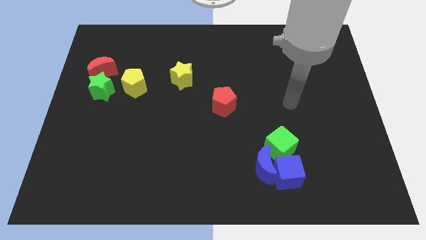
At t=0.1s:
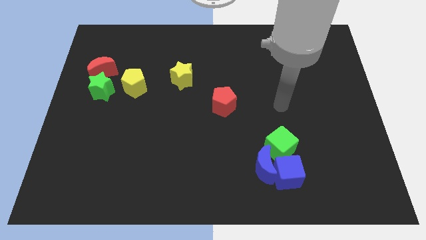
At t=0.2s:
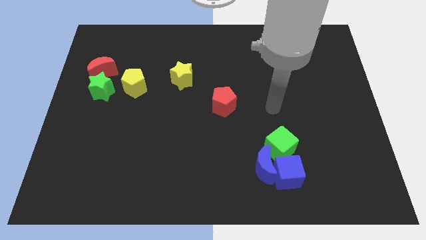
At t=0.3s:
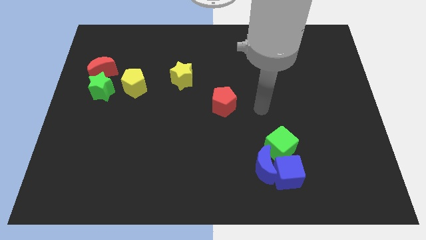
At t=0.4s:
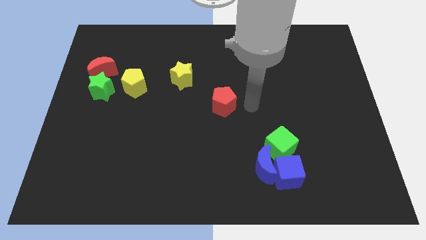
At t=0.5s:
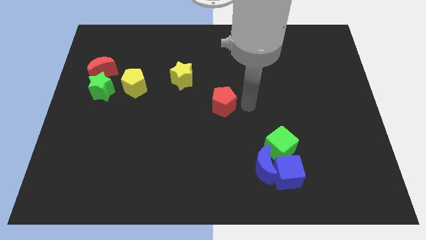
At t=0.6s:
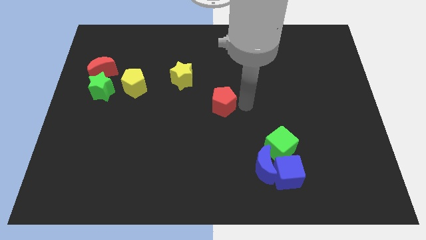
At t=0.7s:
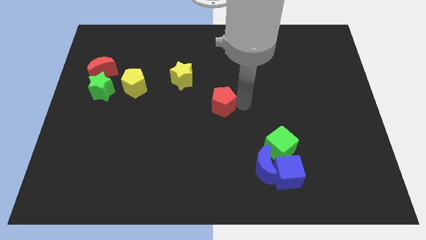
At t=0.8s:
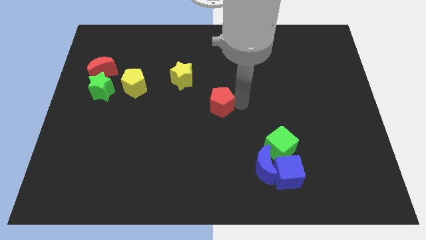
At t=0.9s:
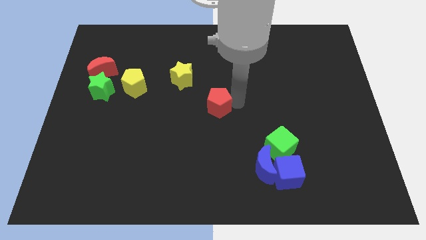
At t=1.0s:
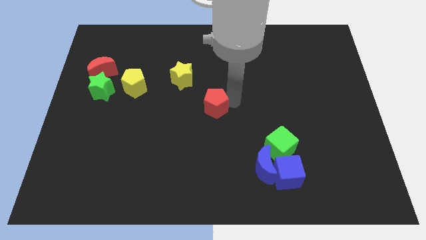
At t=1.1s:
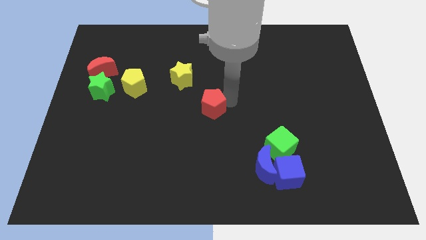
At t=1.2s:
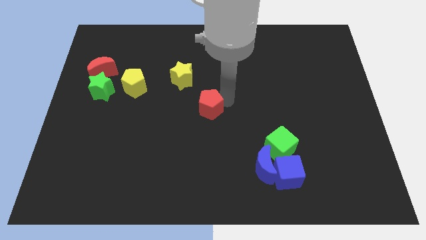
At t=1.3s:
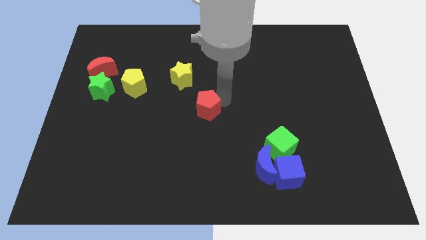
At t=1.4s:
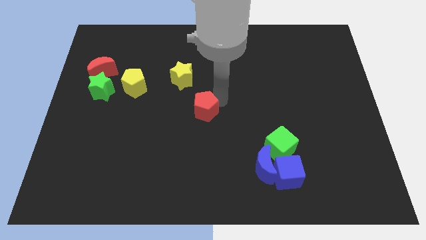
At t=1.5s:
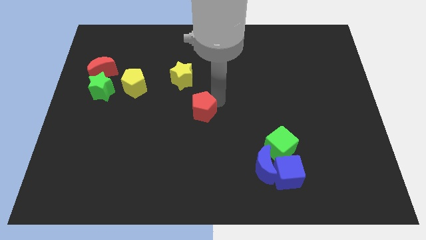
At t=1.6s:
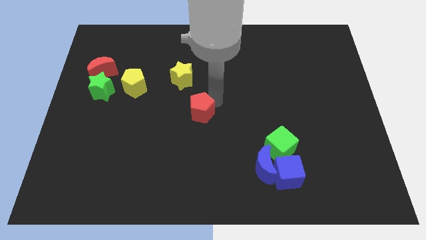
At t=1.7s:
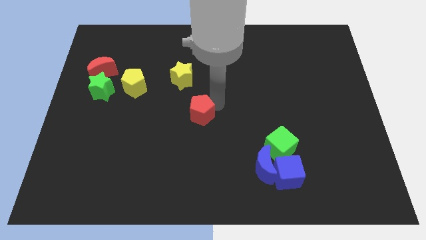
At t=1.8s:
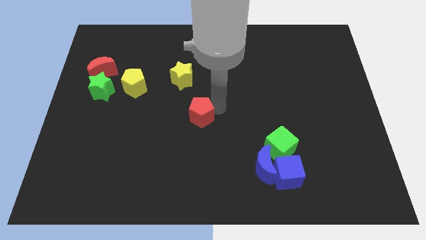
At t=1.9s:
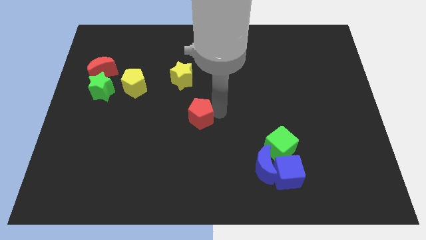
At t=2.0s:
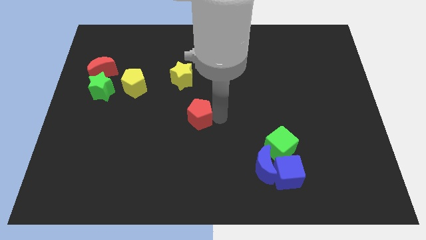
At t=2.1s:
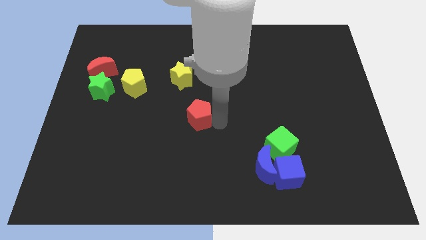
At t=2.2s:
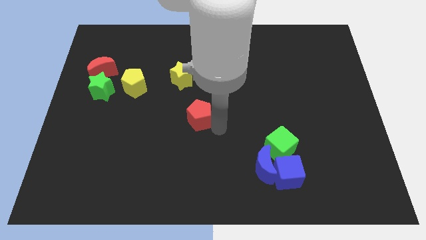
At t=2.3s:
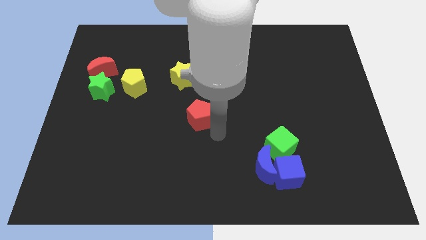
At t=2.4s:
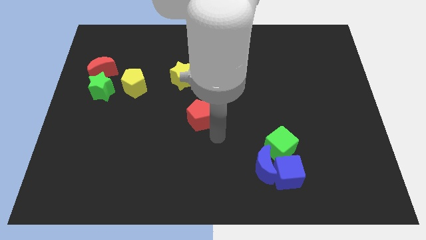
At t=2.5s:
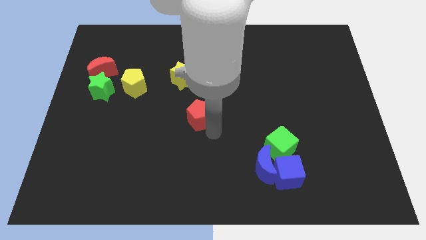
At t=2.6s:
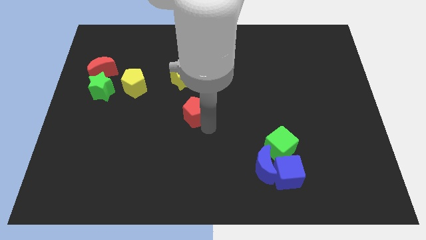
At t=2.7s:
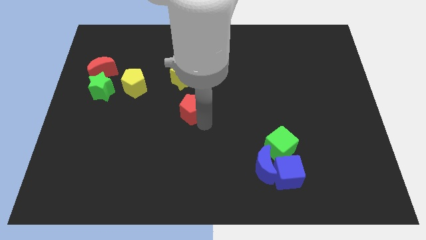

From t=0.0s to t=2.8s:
push the red pentagon left slightly

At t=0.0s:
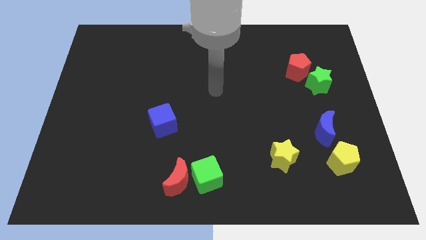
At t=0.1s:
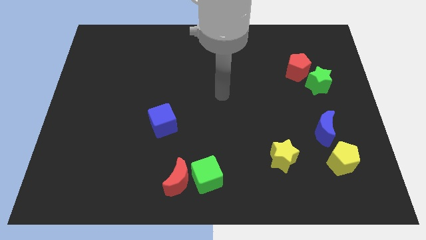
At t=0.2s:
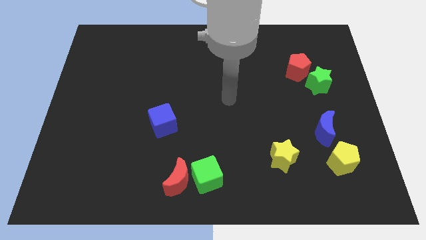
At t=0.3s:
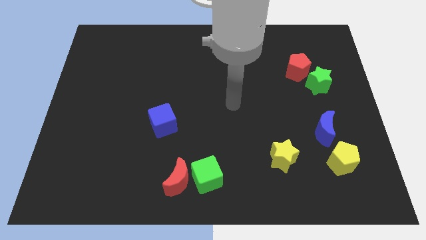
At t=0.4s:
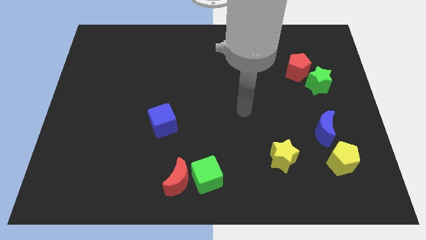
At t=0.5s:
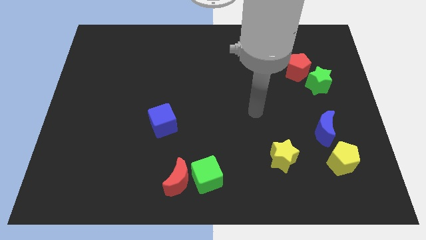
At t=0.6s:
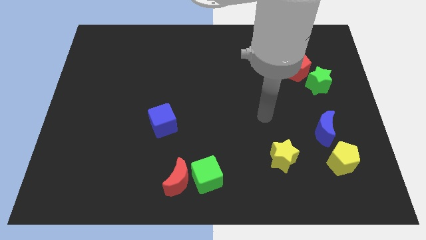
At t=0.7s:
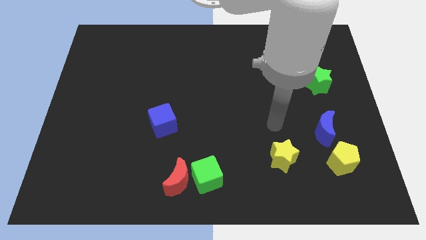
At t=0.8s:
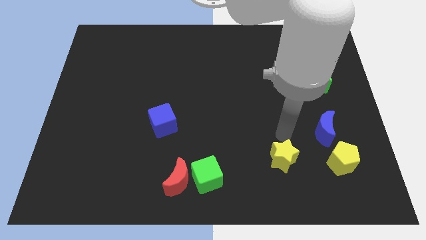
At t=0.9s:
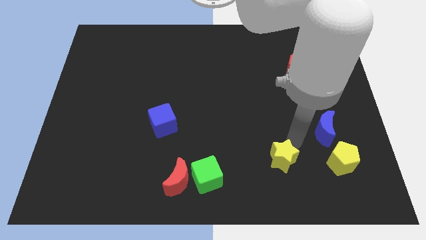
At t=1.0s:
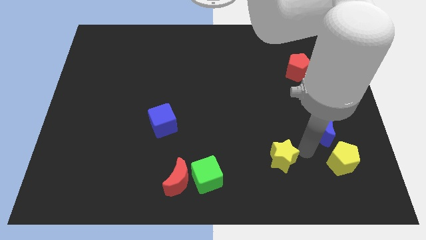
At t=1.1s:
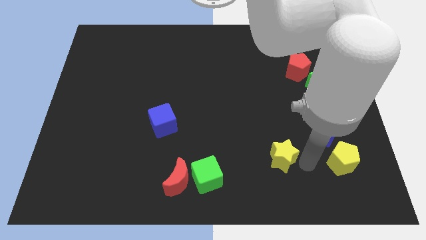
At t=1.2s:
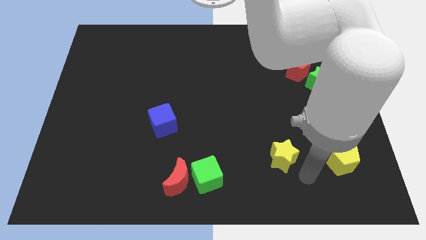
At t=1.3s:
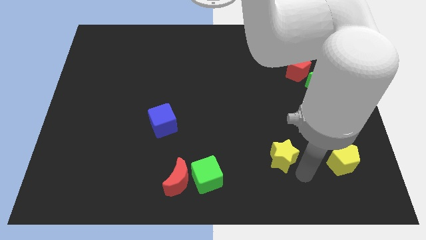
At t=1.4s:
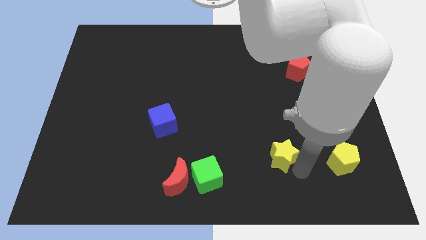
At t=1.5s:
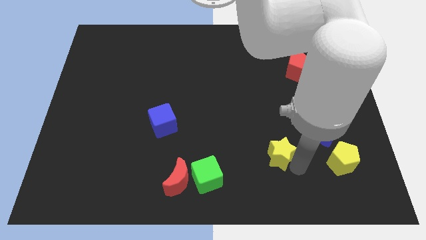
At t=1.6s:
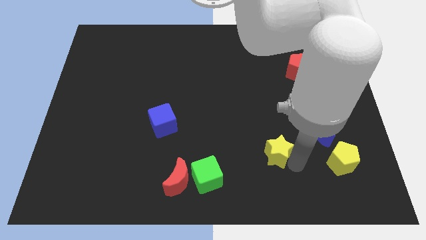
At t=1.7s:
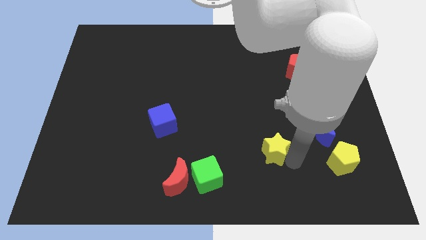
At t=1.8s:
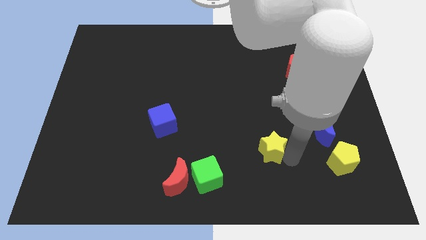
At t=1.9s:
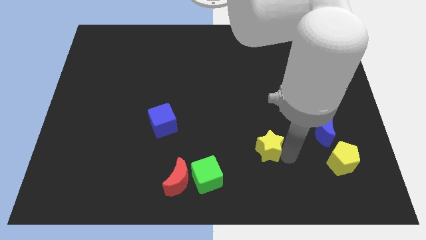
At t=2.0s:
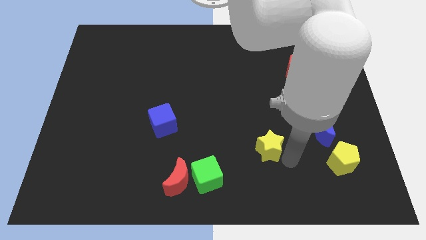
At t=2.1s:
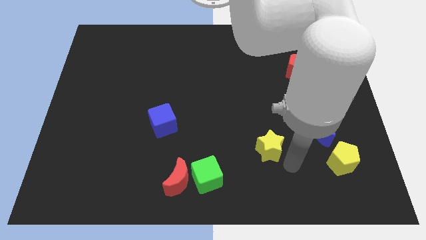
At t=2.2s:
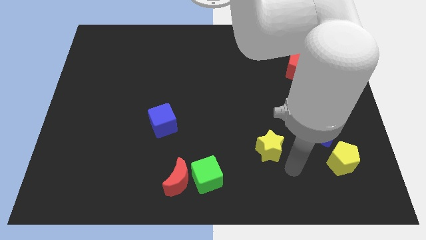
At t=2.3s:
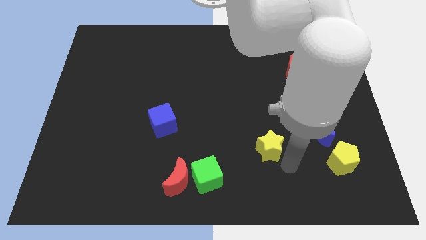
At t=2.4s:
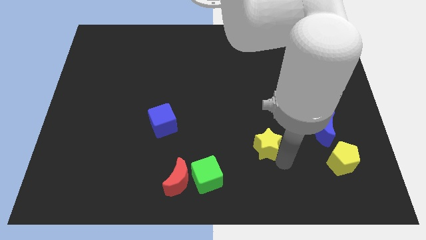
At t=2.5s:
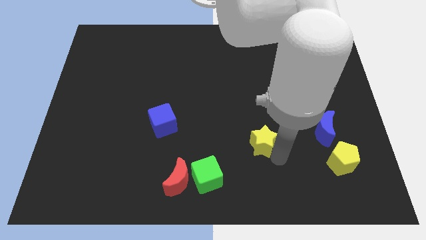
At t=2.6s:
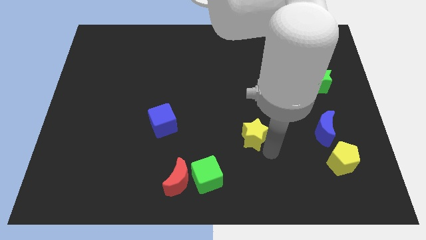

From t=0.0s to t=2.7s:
move the yellow star a little up and to the left diagonally

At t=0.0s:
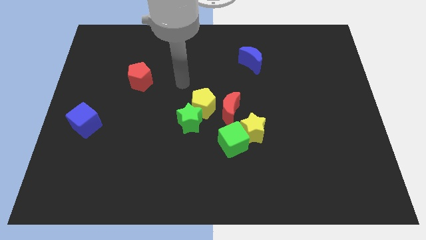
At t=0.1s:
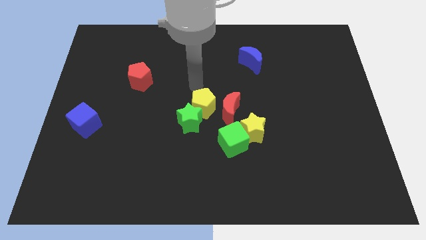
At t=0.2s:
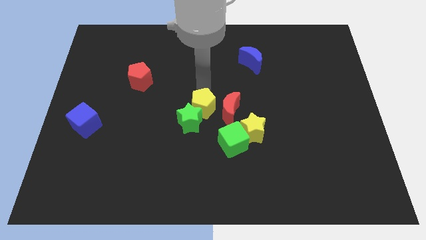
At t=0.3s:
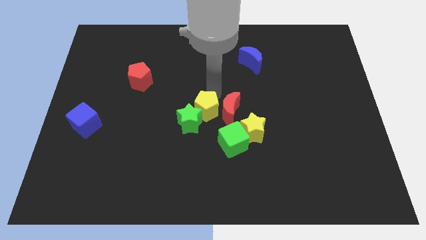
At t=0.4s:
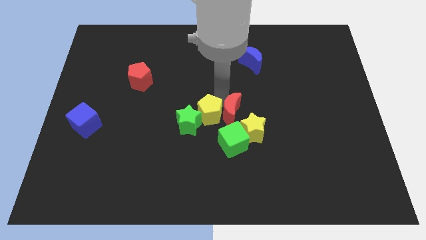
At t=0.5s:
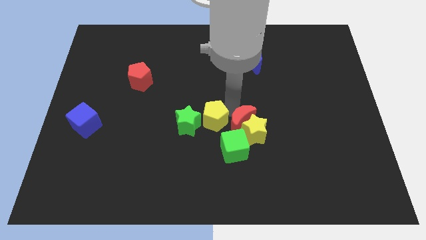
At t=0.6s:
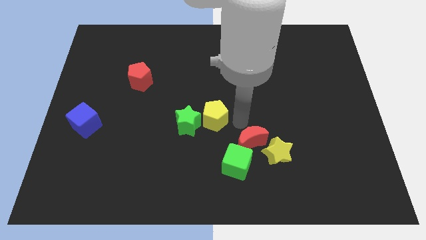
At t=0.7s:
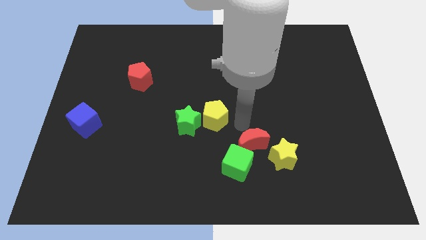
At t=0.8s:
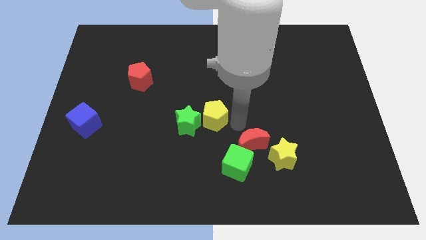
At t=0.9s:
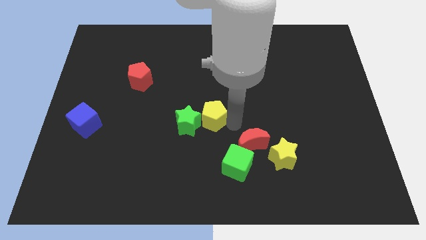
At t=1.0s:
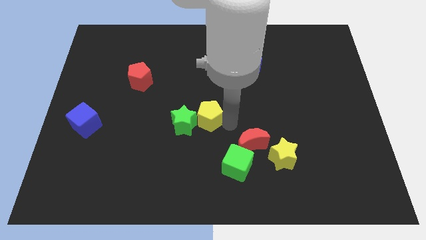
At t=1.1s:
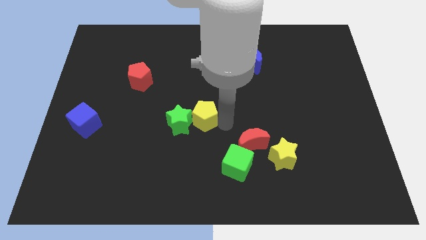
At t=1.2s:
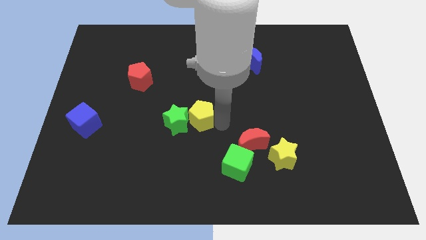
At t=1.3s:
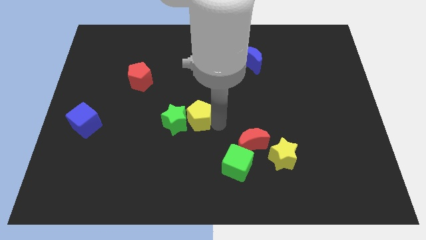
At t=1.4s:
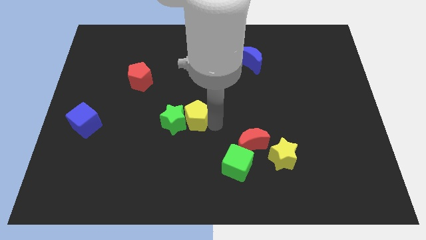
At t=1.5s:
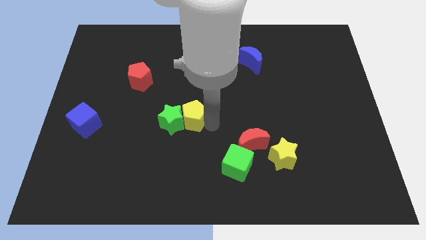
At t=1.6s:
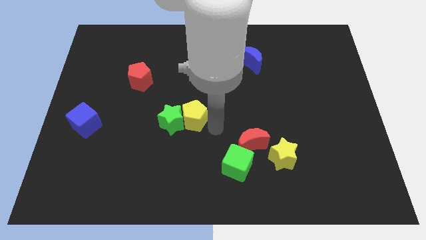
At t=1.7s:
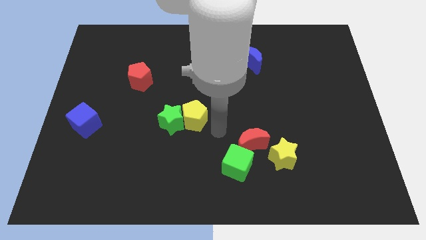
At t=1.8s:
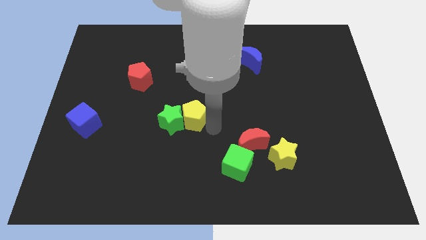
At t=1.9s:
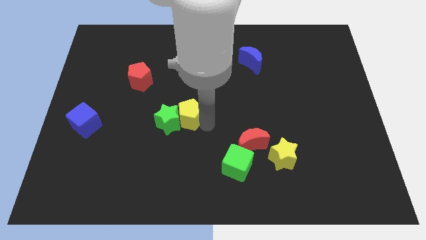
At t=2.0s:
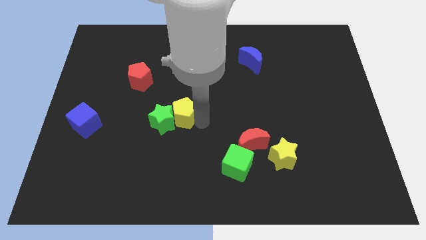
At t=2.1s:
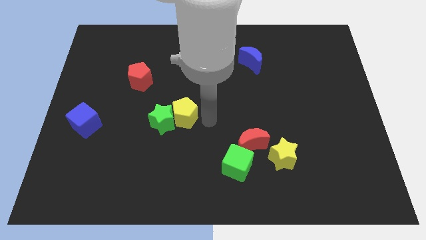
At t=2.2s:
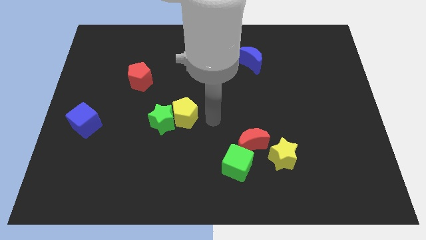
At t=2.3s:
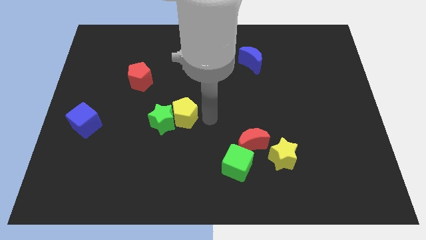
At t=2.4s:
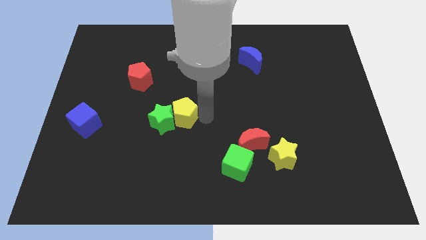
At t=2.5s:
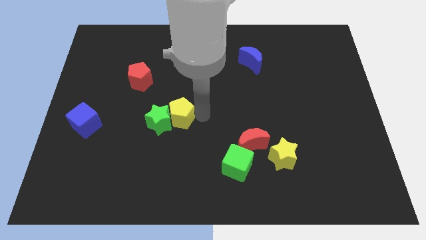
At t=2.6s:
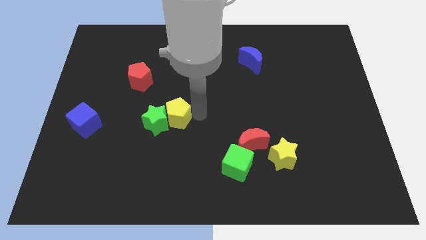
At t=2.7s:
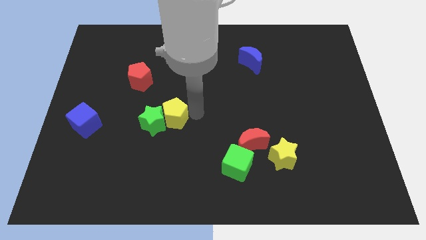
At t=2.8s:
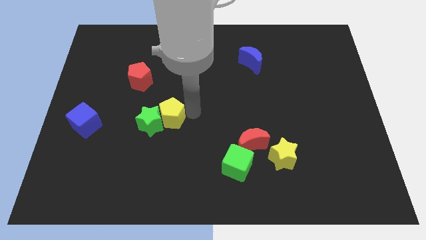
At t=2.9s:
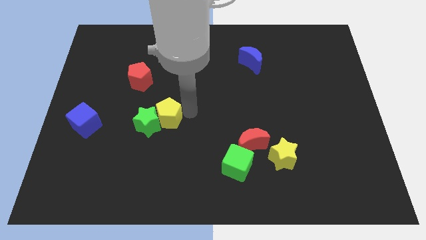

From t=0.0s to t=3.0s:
push the yellow pentagon to the left a little
